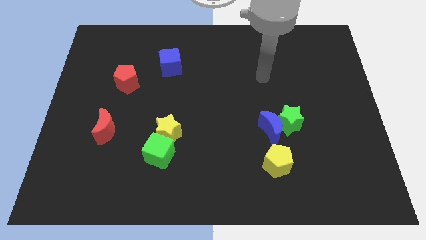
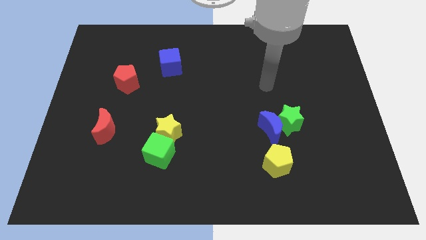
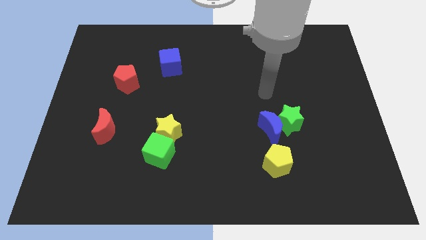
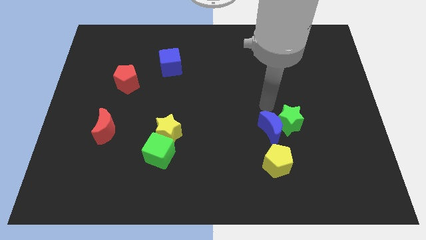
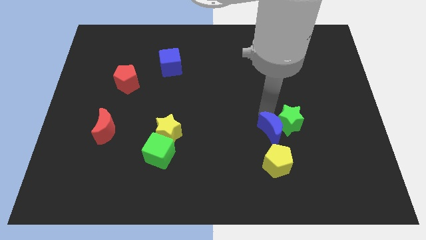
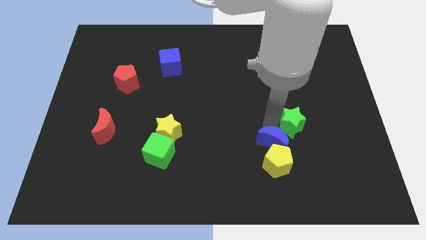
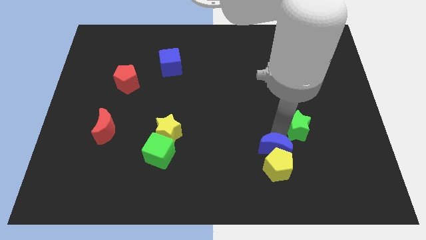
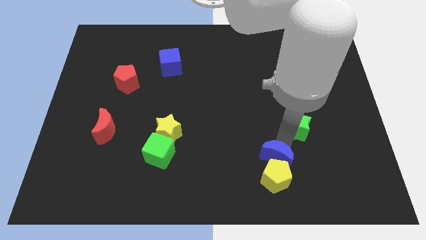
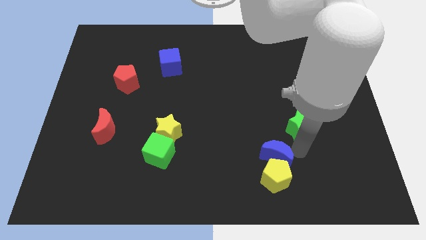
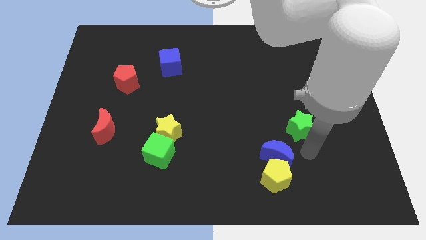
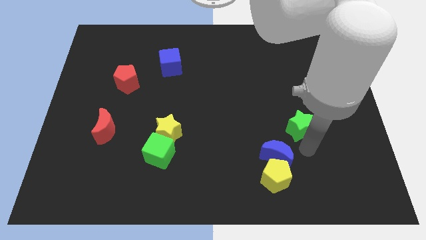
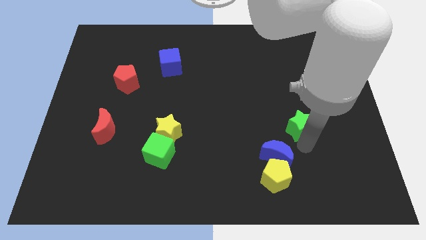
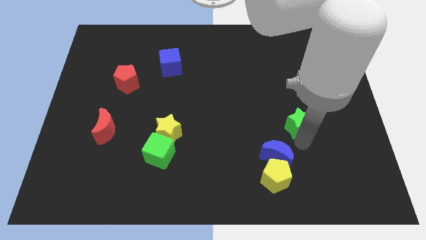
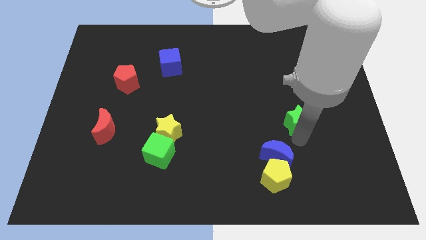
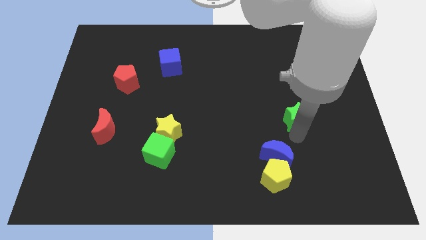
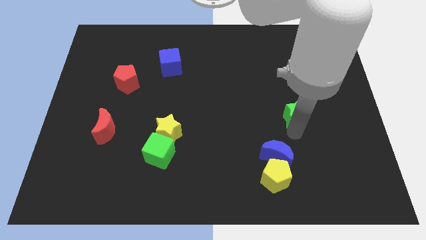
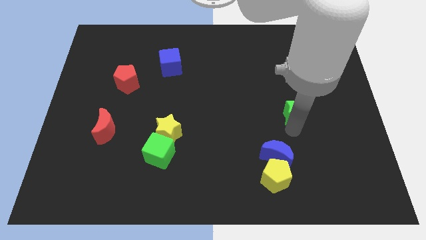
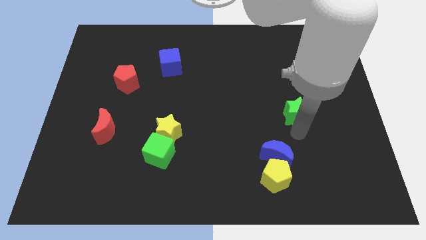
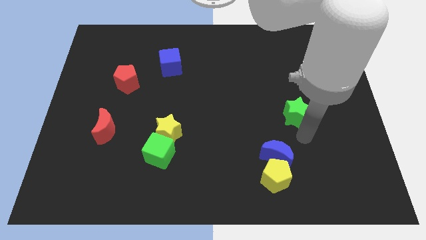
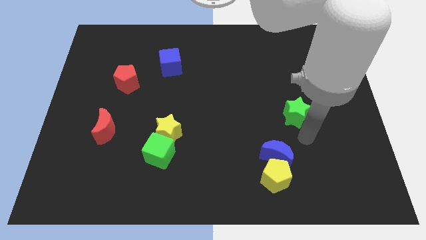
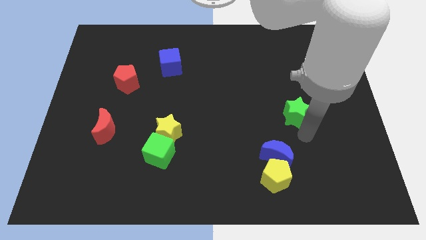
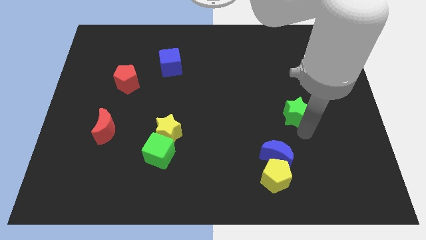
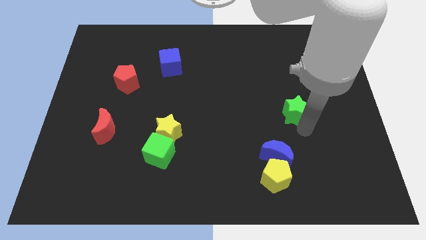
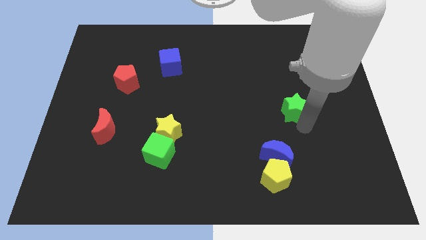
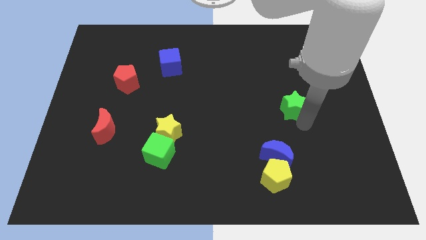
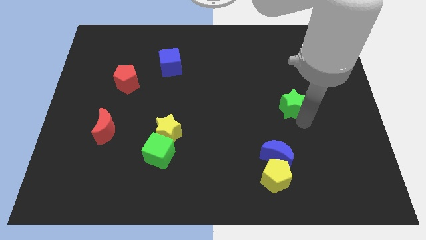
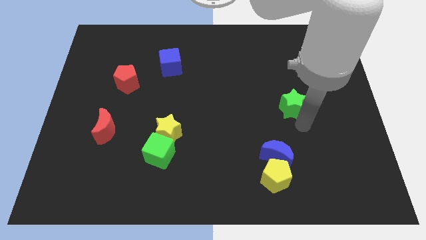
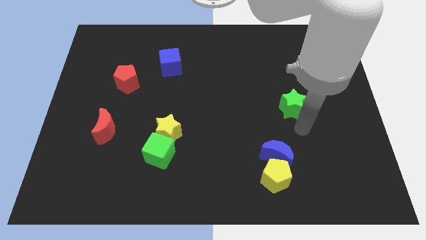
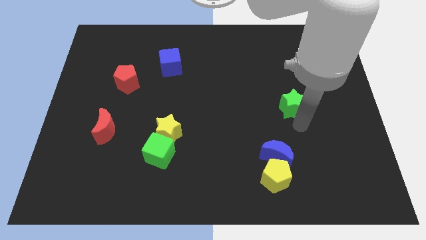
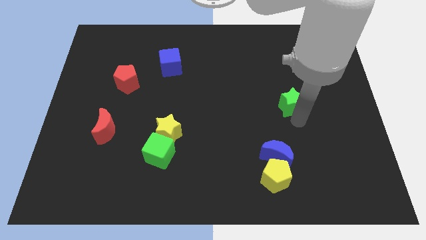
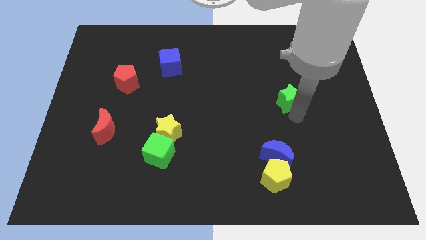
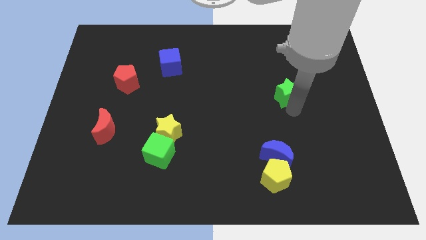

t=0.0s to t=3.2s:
slightly push the green star up

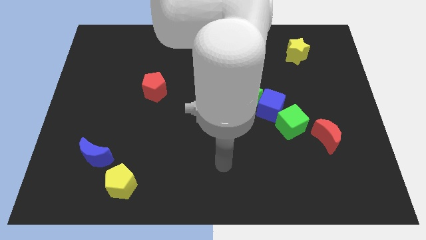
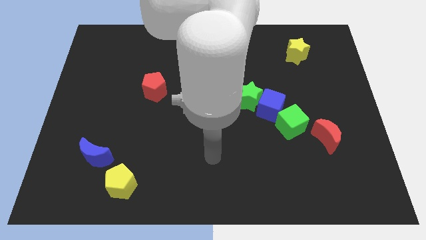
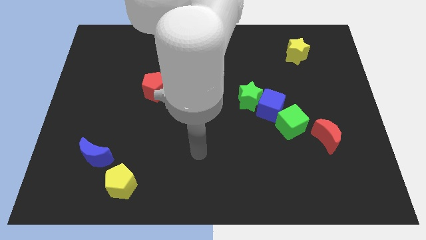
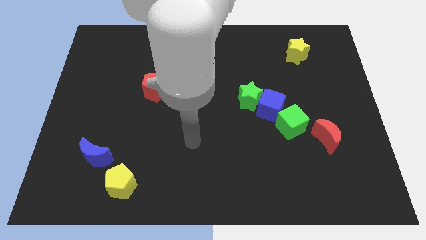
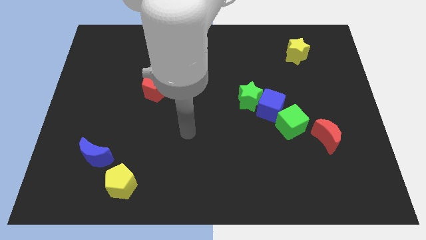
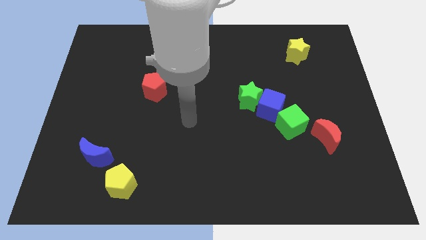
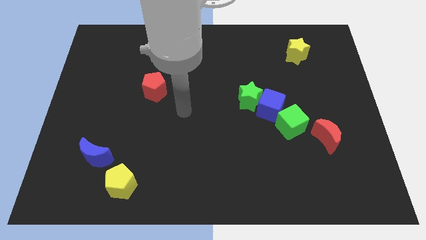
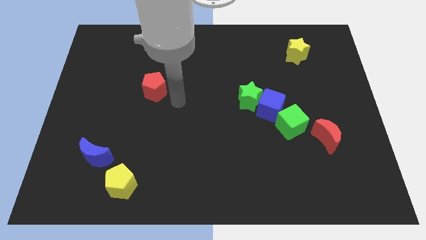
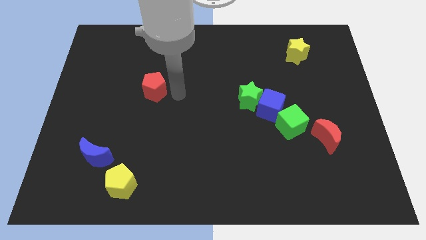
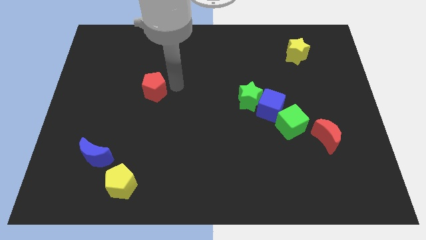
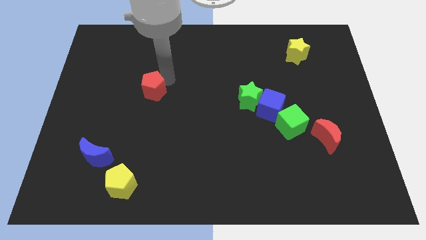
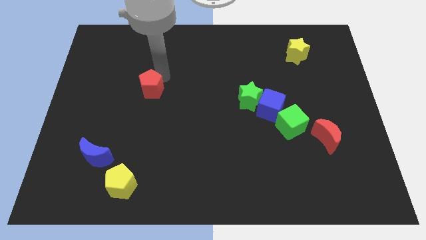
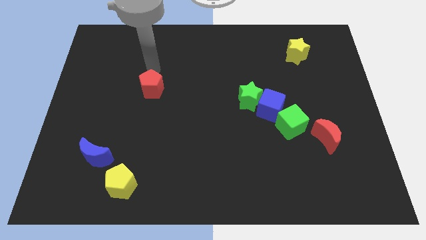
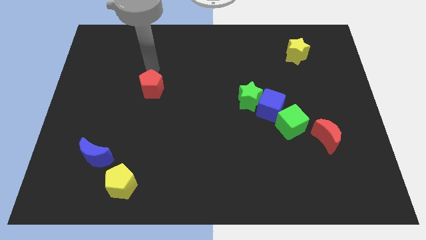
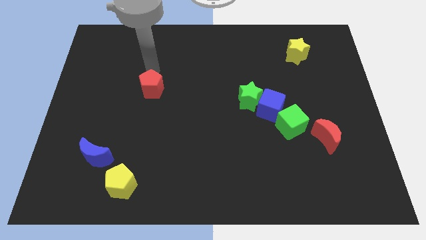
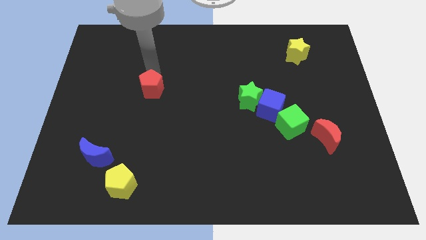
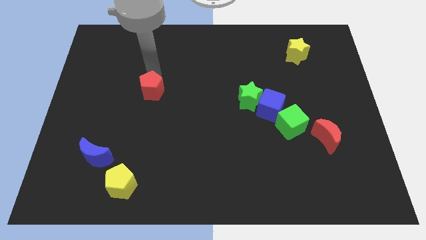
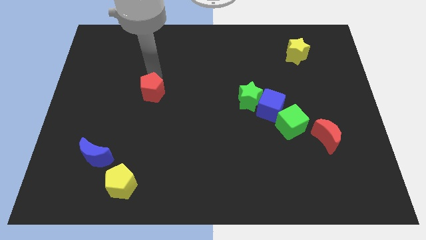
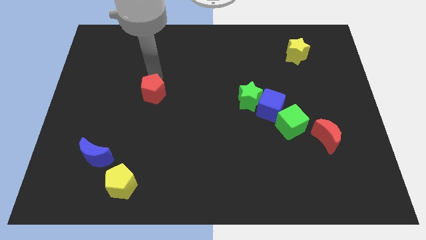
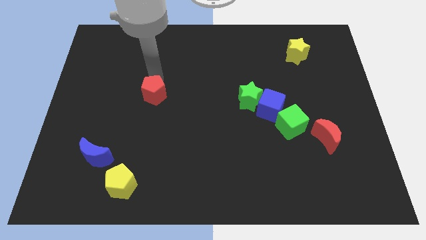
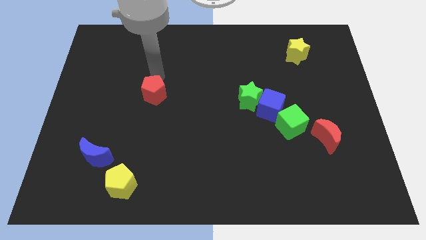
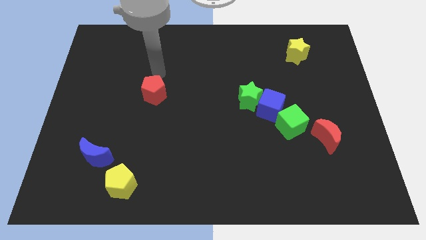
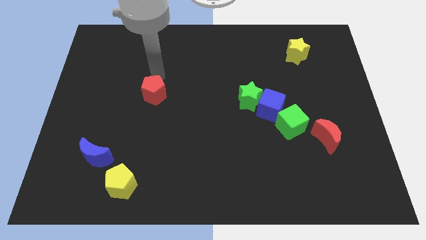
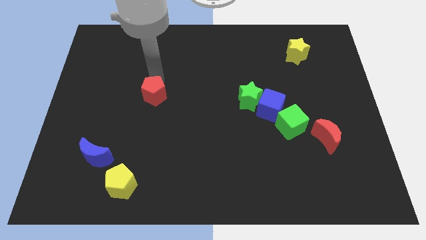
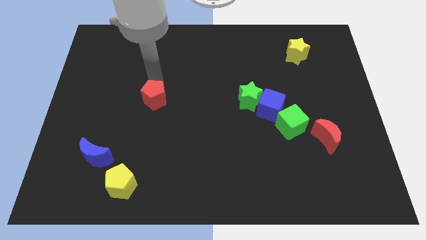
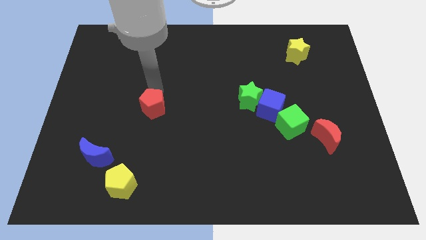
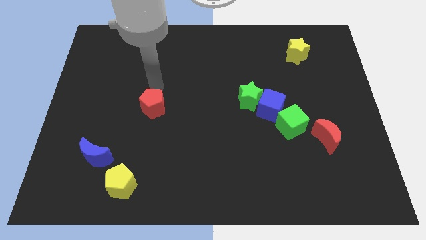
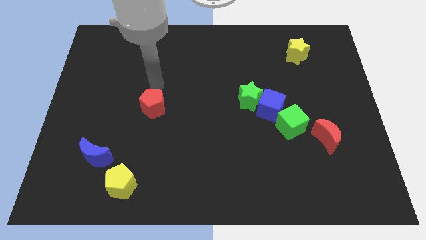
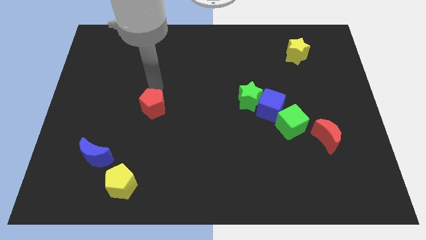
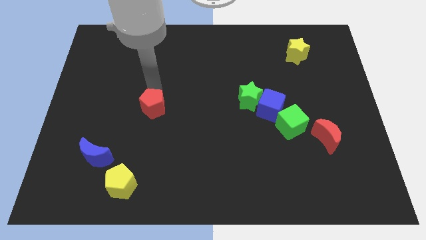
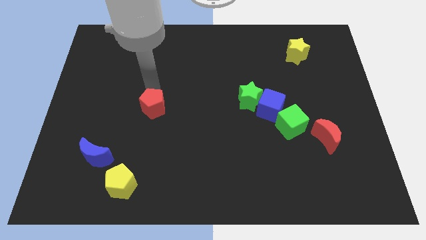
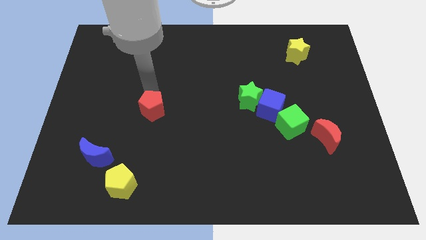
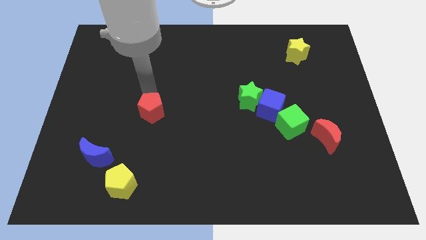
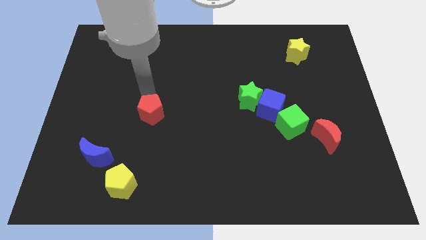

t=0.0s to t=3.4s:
move the red pentagon down a little

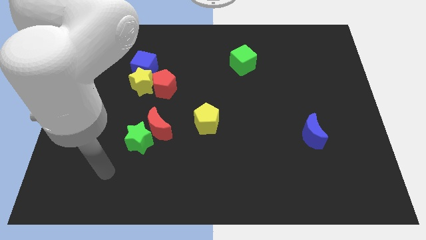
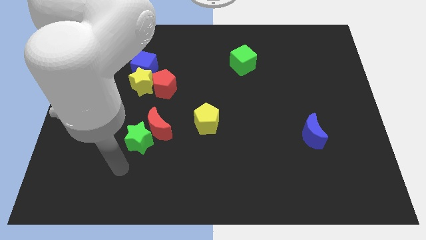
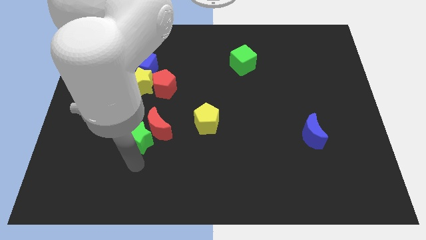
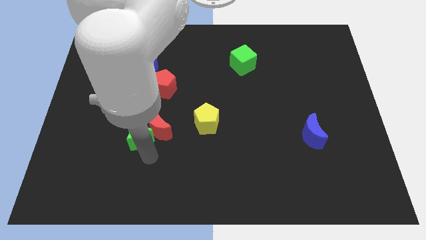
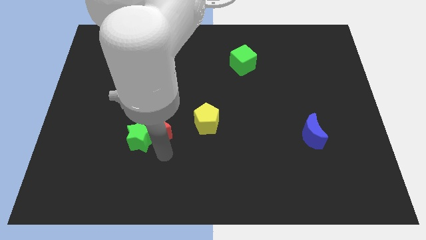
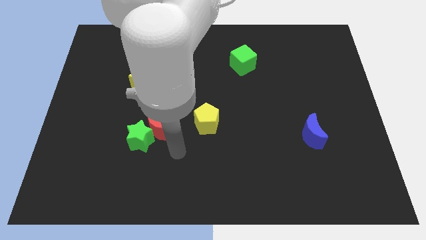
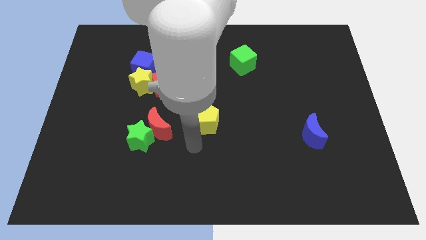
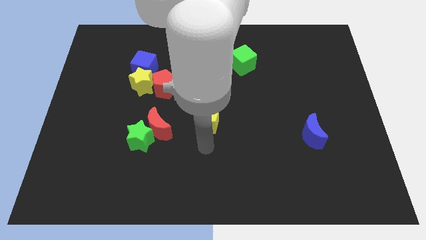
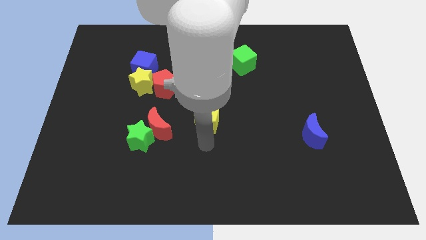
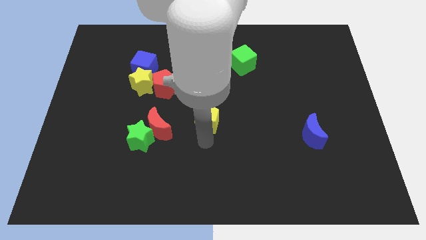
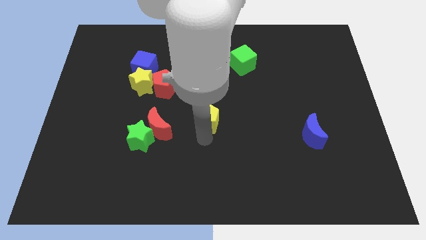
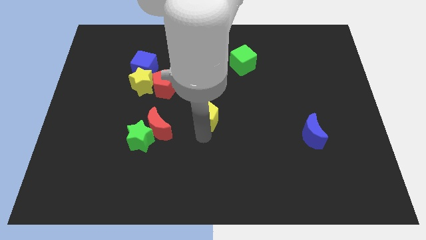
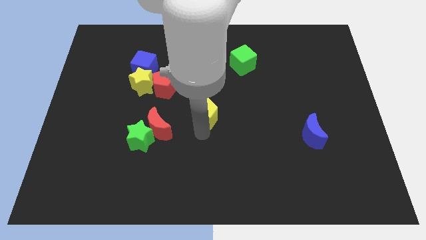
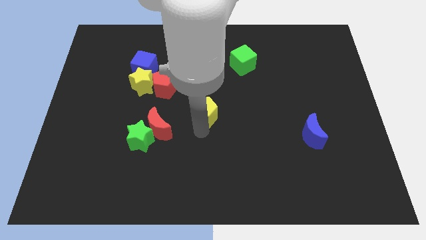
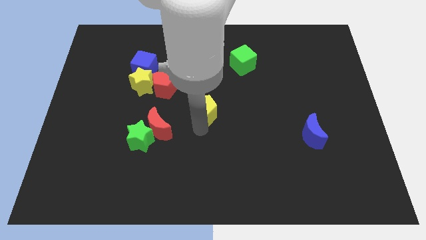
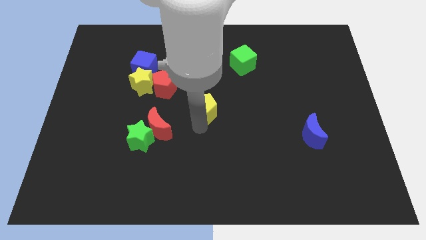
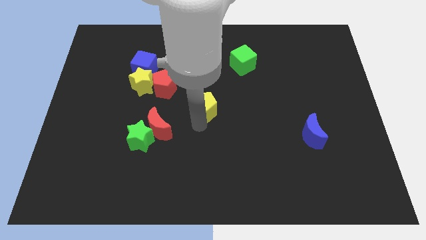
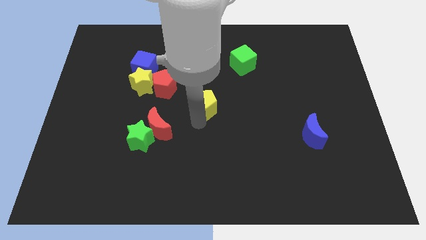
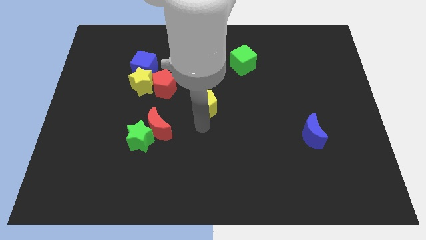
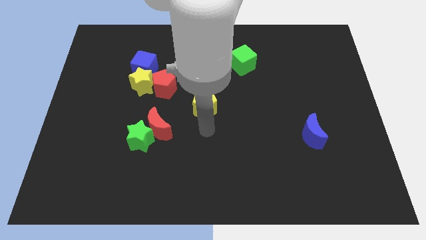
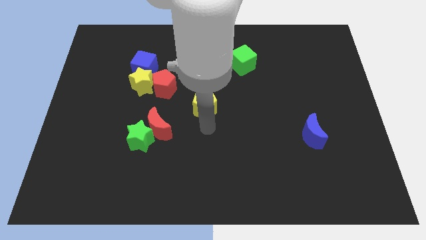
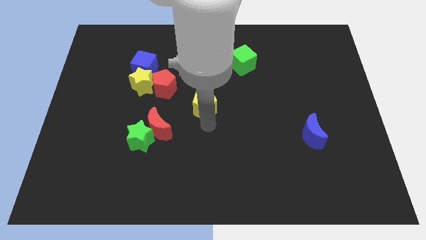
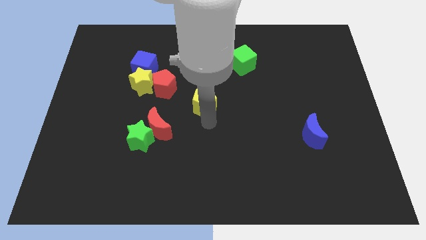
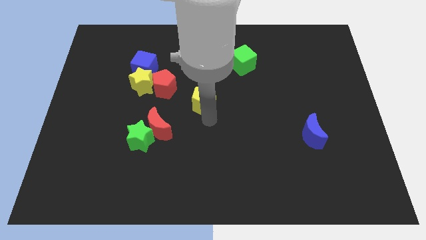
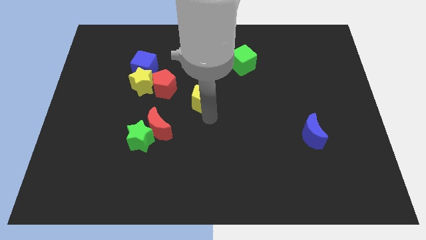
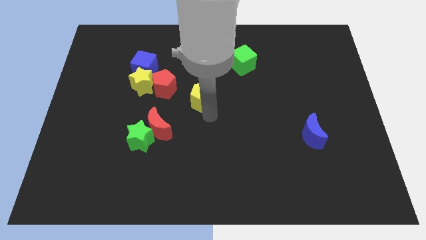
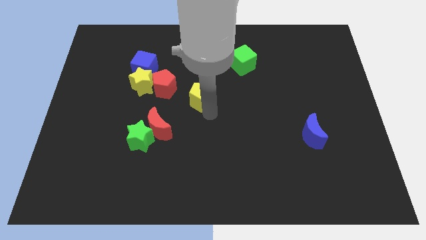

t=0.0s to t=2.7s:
move the yellow pentagon a bit upwards
